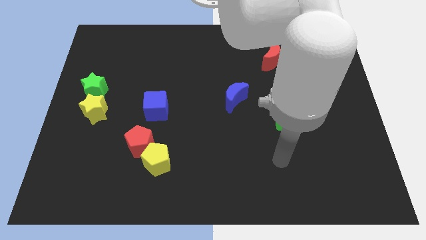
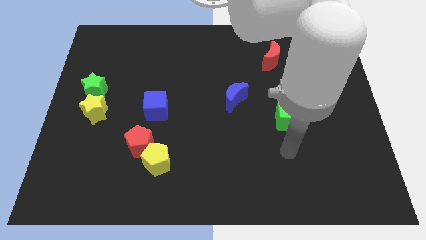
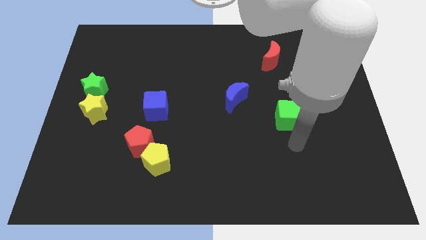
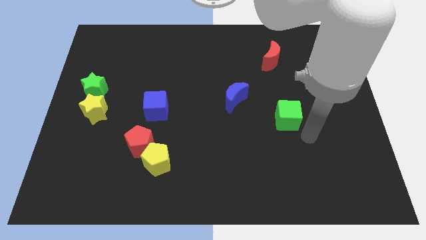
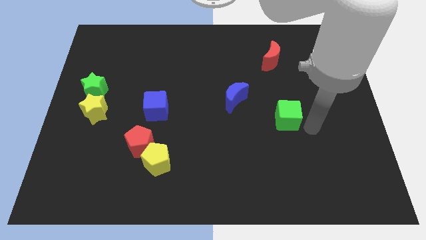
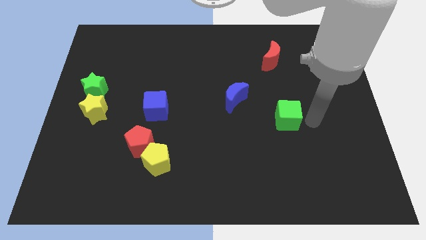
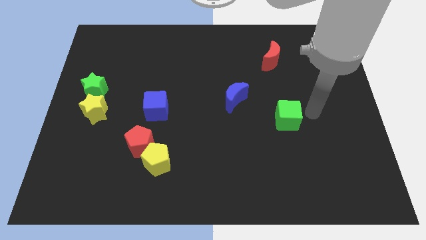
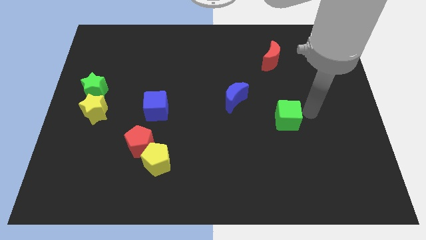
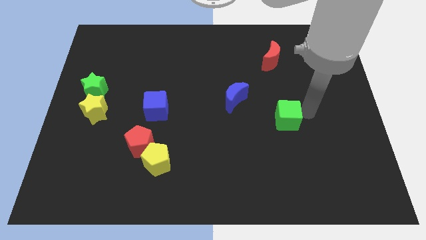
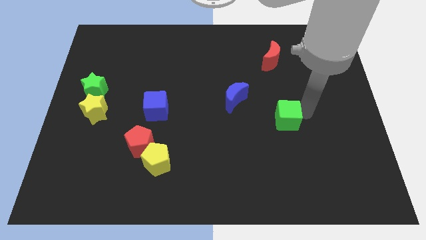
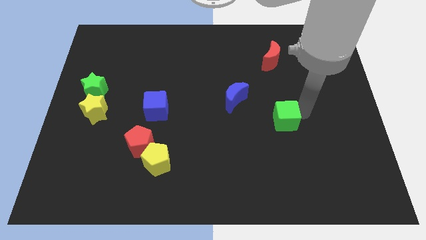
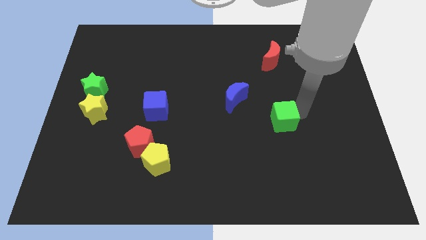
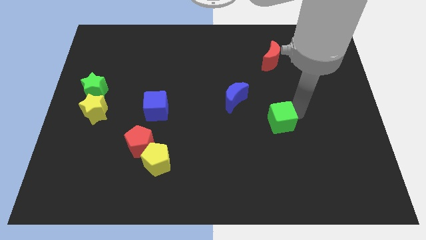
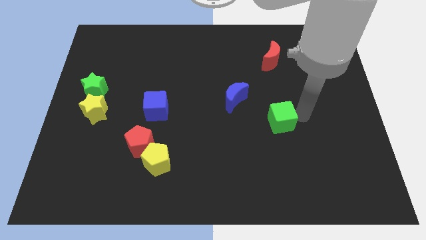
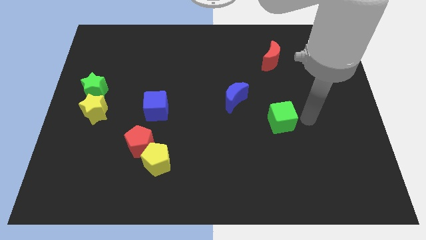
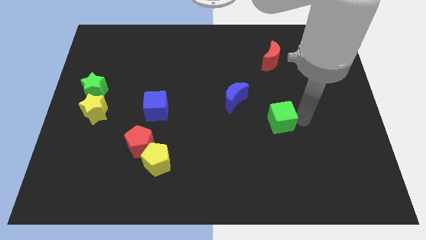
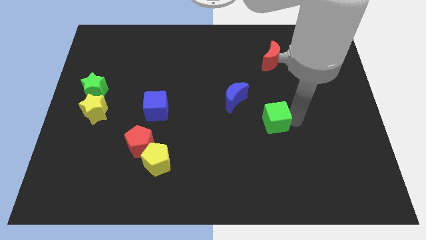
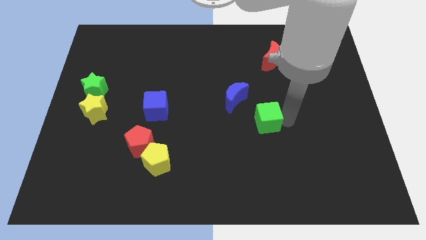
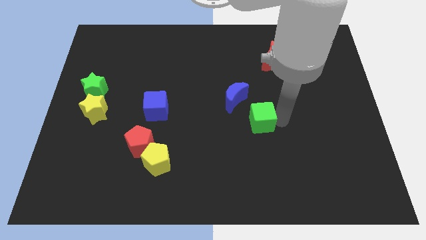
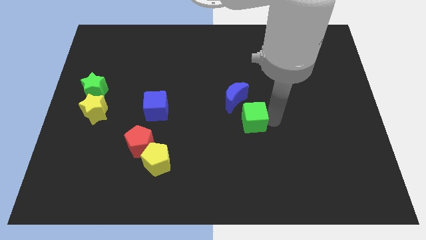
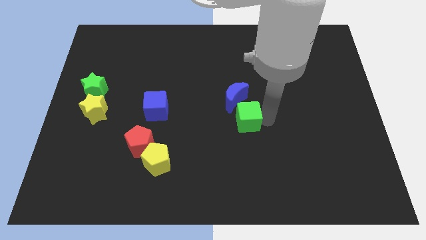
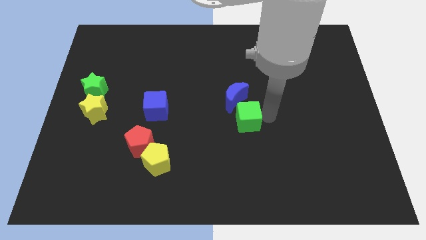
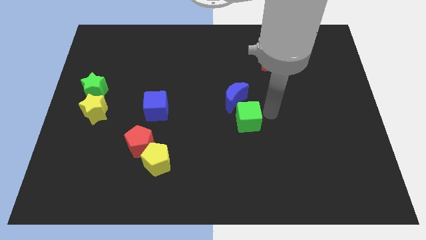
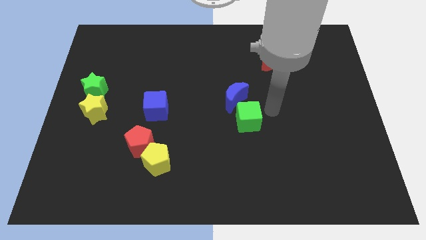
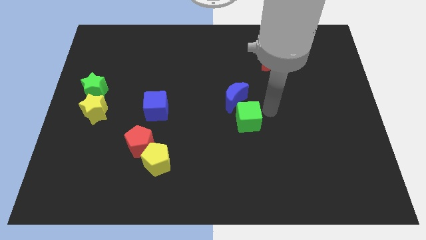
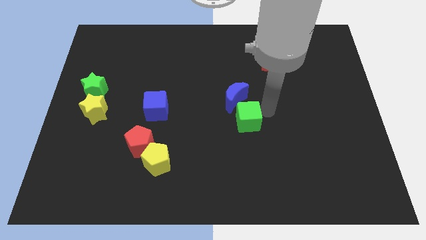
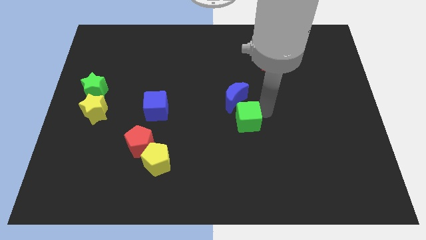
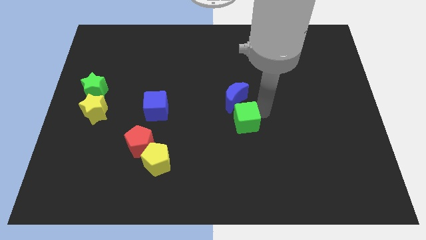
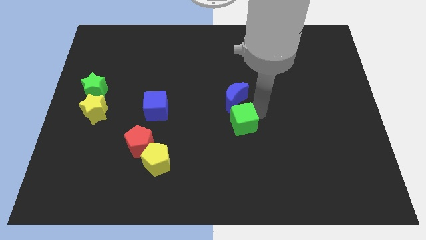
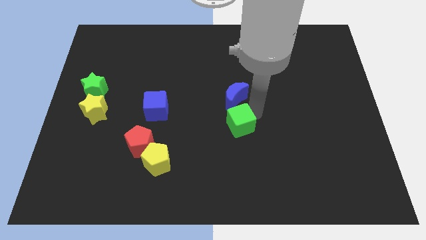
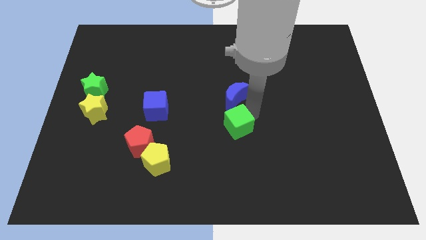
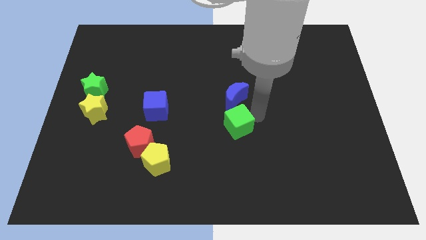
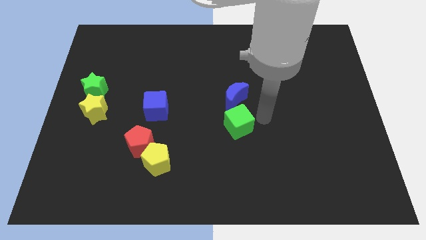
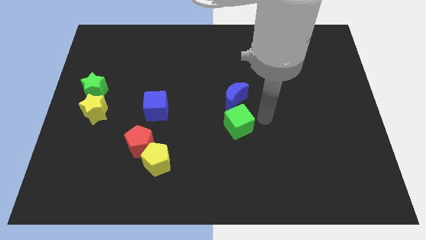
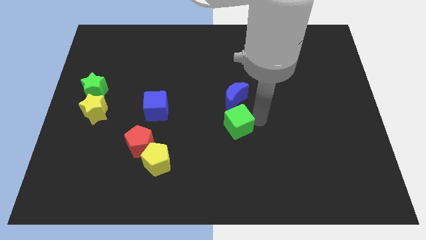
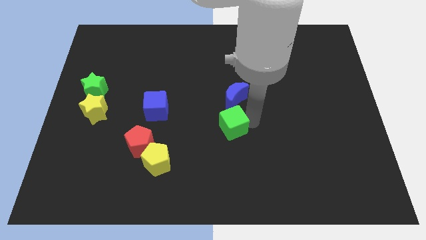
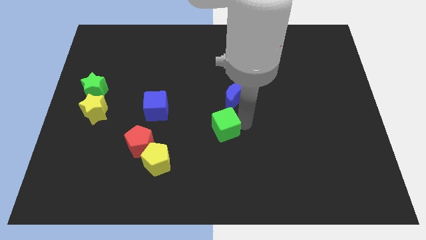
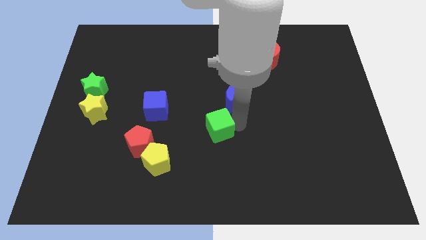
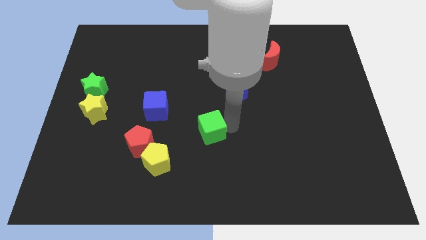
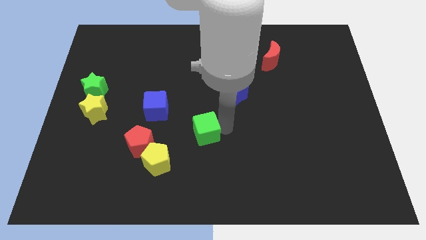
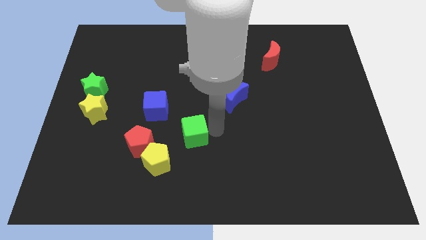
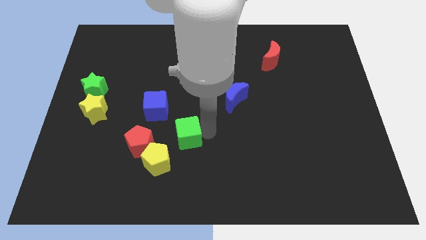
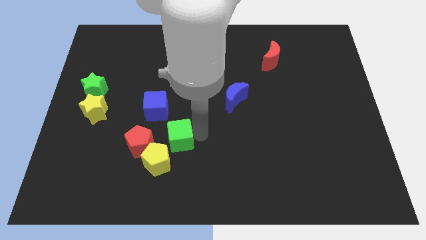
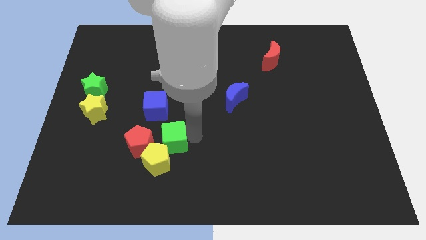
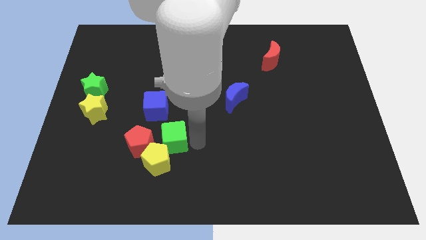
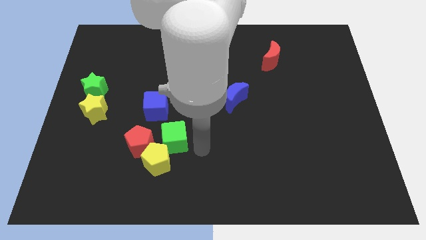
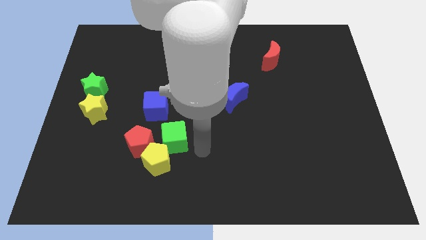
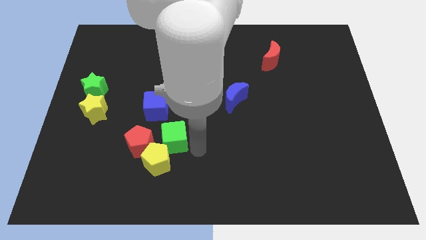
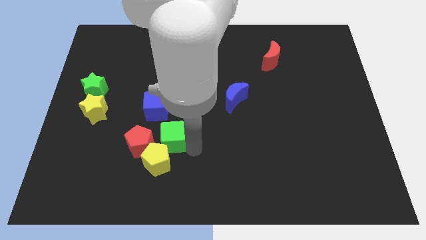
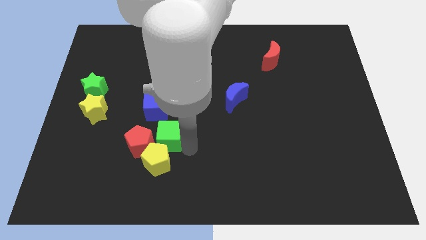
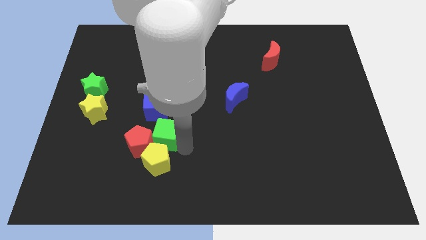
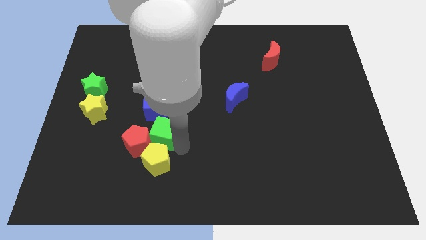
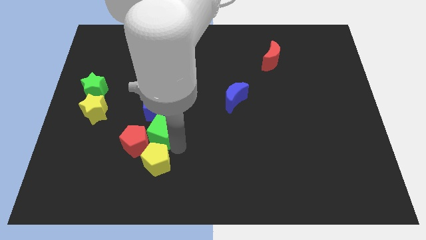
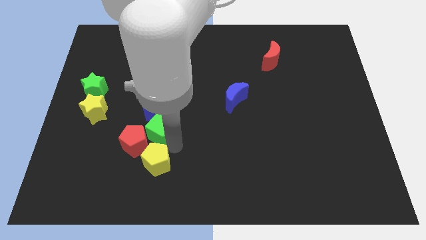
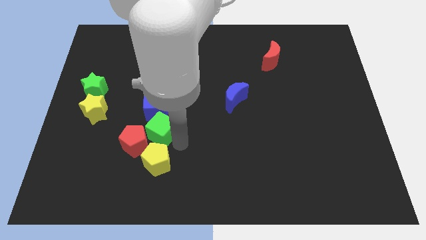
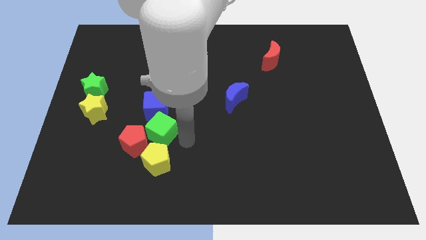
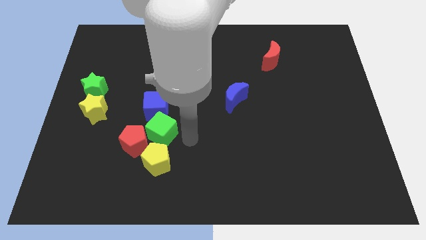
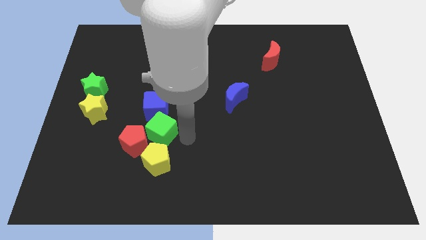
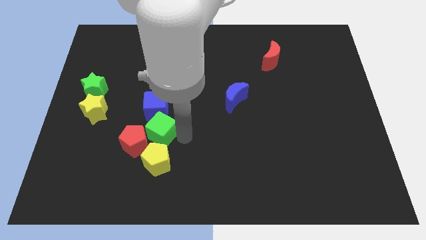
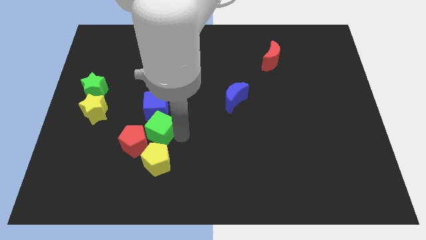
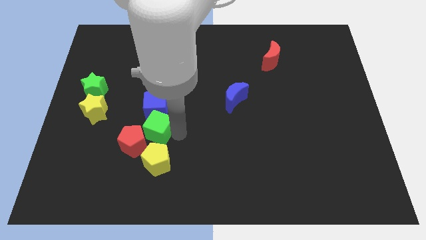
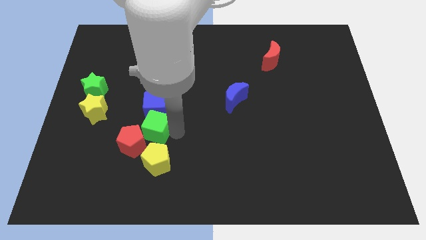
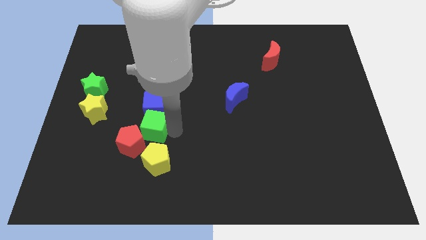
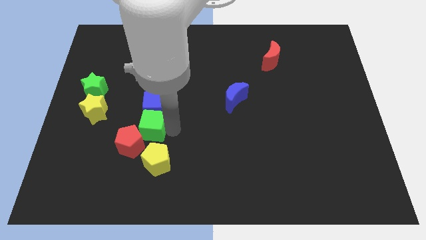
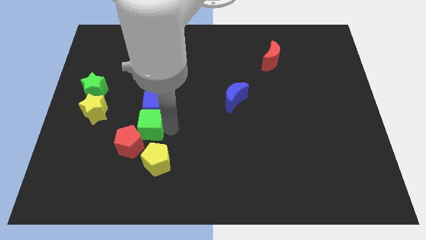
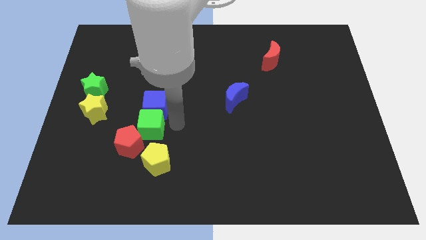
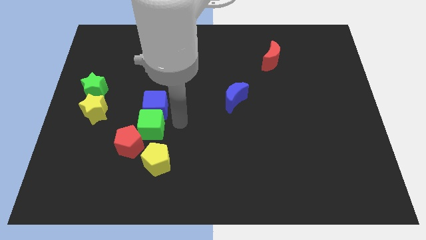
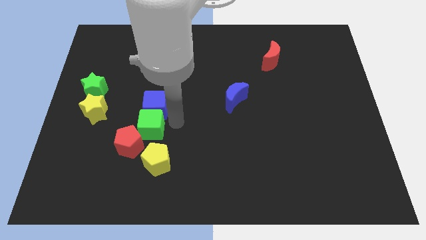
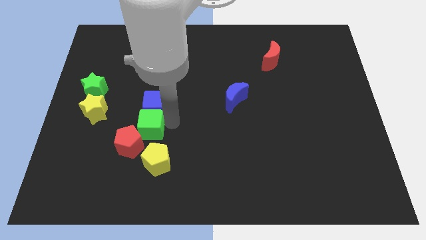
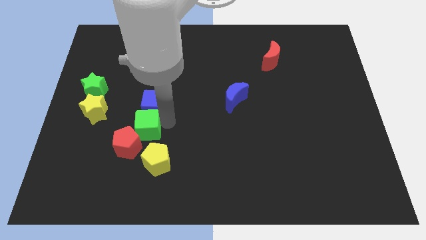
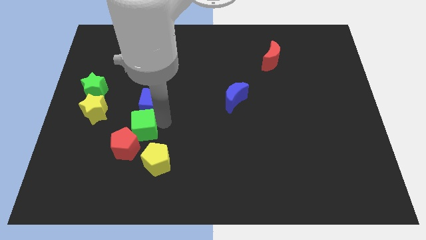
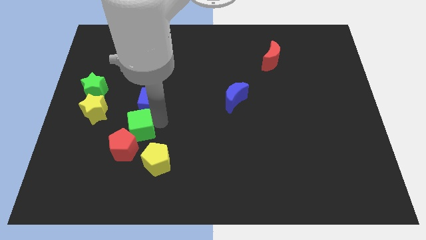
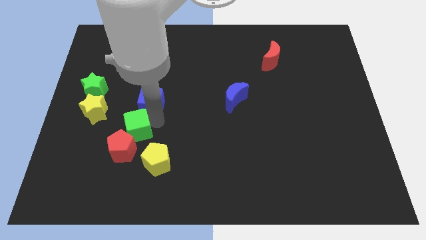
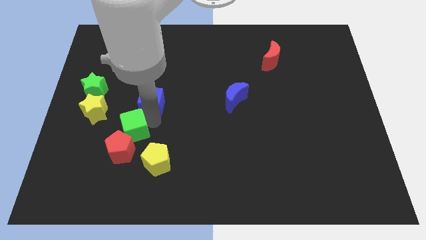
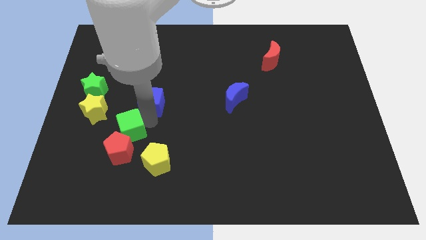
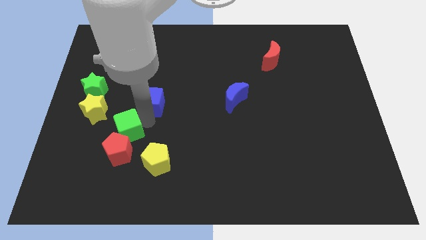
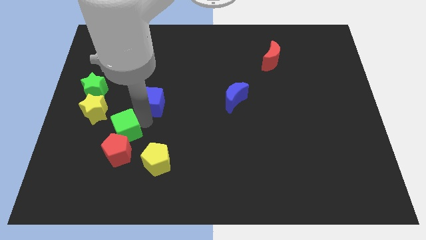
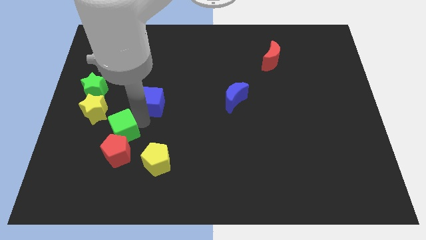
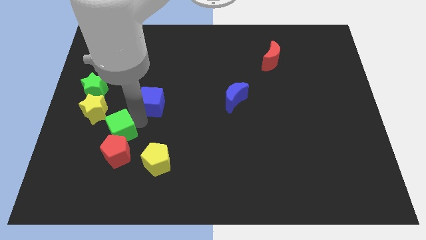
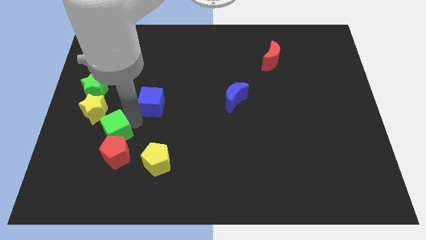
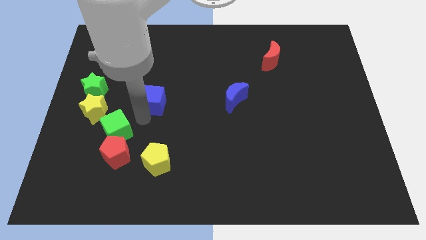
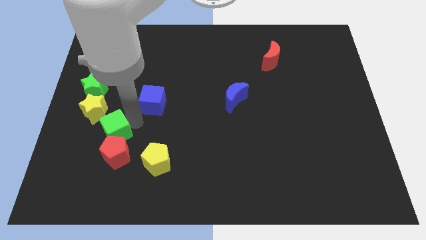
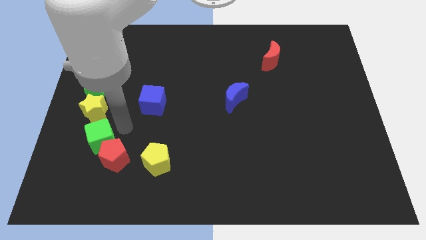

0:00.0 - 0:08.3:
put the green cube just left of the red pentagon
